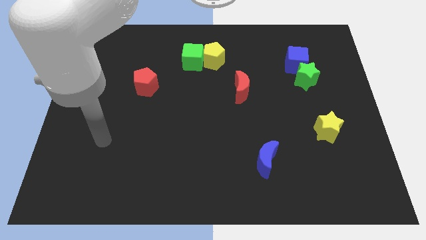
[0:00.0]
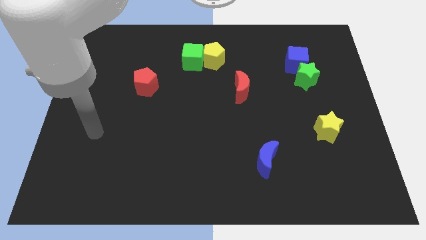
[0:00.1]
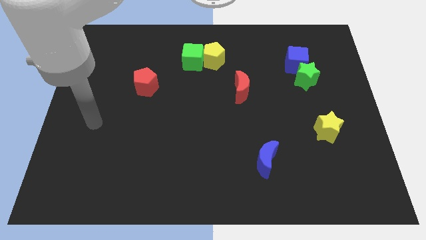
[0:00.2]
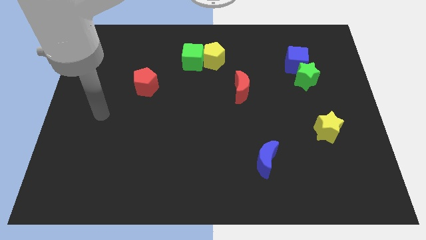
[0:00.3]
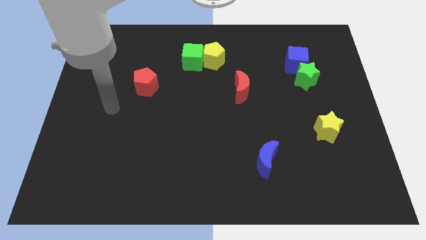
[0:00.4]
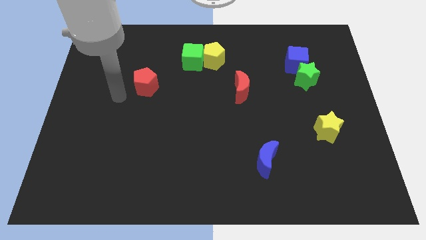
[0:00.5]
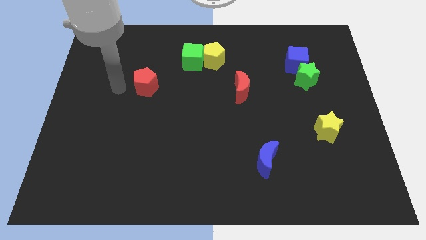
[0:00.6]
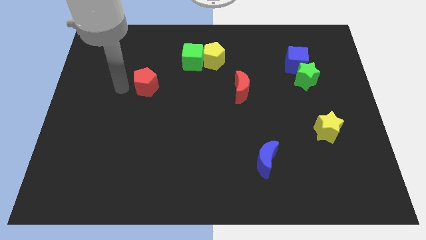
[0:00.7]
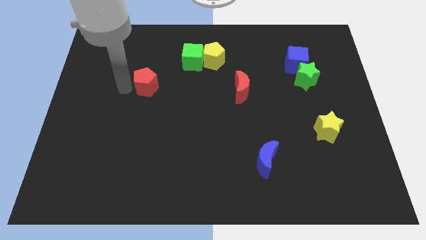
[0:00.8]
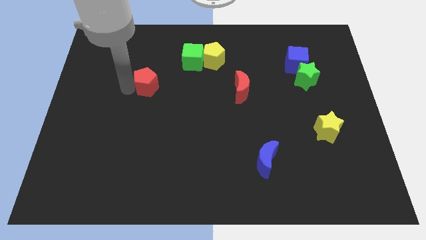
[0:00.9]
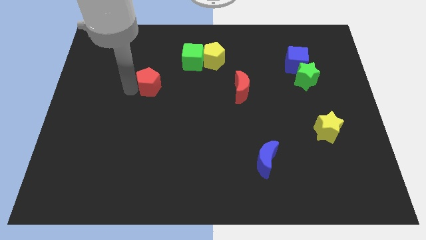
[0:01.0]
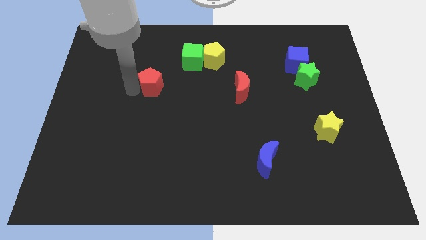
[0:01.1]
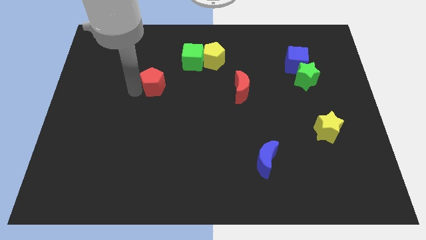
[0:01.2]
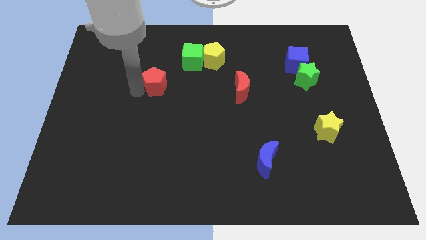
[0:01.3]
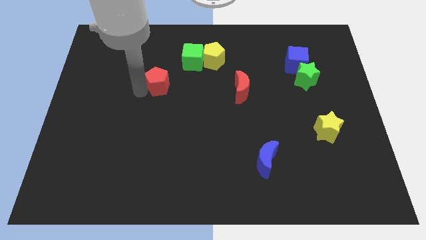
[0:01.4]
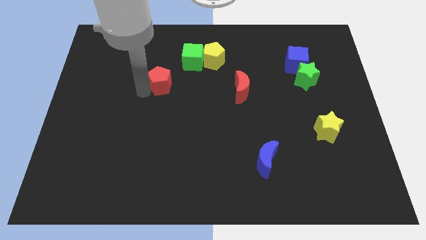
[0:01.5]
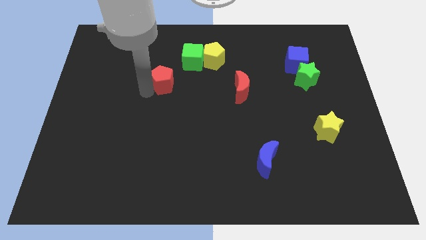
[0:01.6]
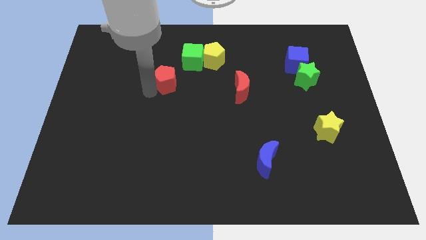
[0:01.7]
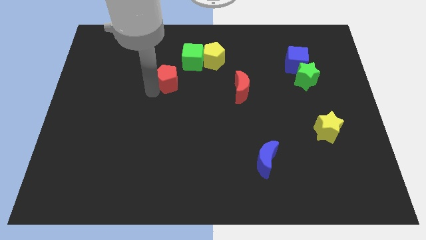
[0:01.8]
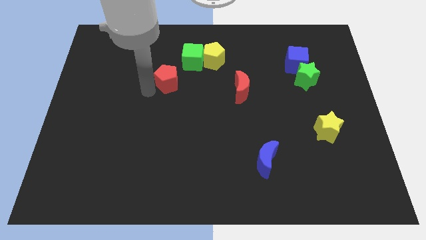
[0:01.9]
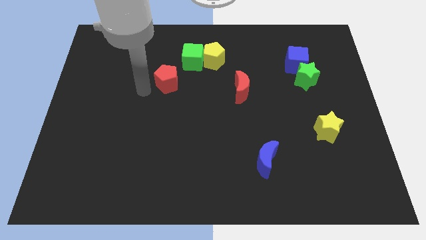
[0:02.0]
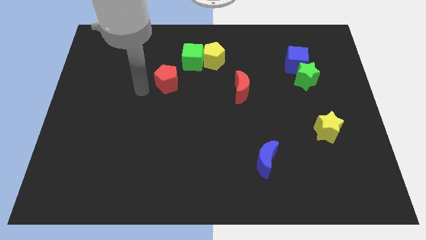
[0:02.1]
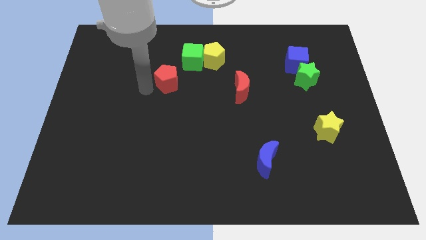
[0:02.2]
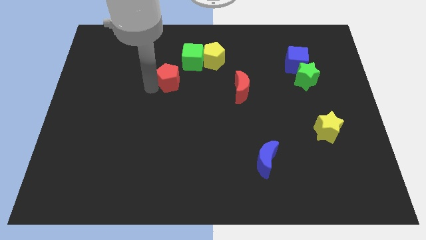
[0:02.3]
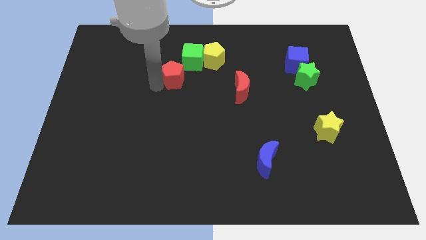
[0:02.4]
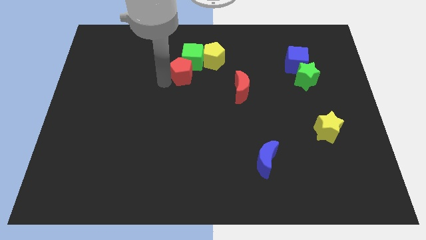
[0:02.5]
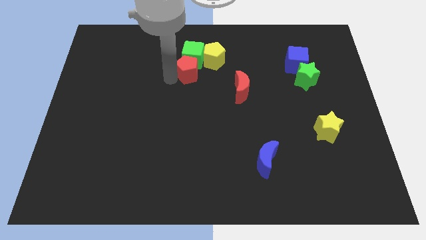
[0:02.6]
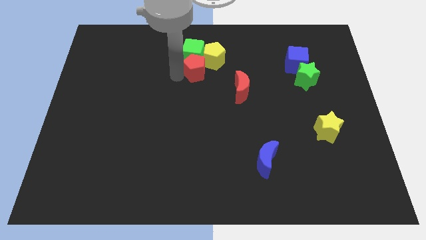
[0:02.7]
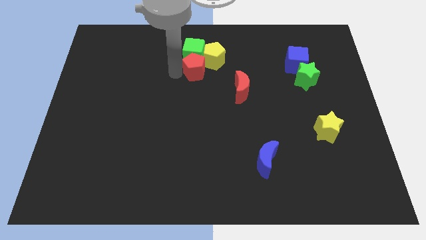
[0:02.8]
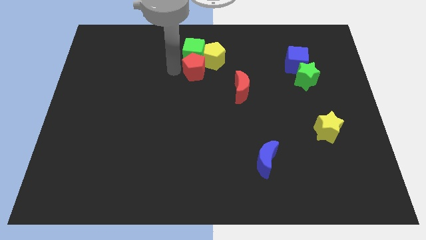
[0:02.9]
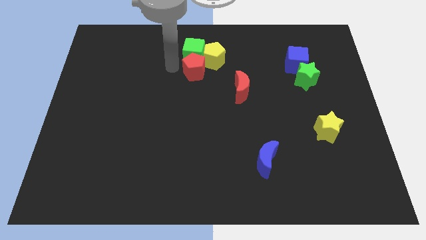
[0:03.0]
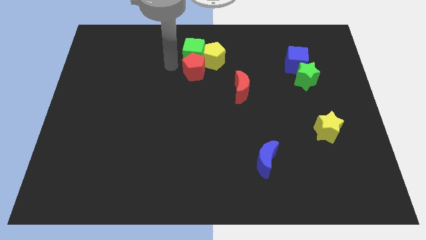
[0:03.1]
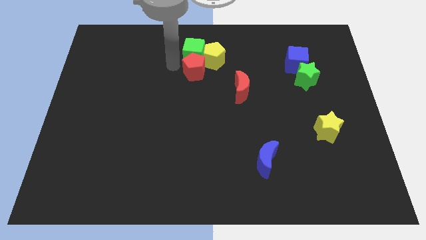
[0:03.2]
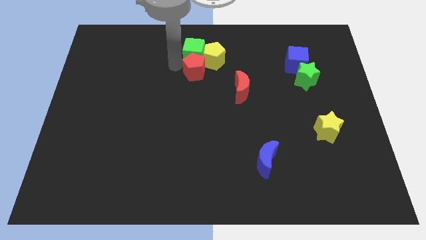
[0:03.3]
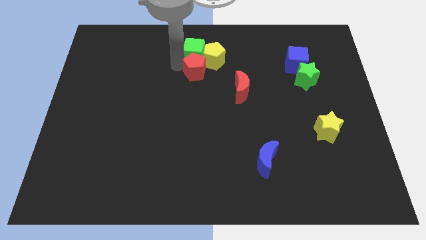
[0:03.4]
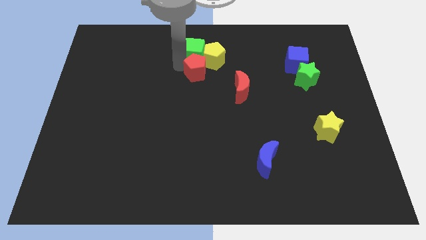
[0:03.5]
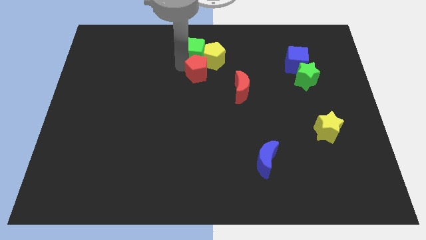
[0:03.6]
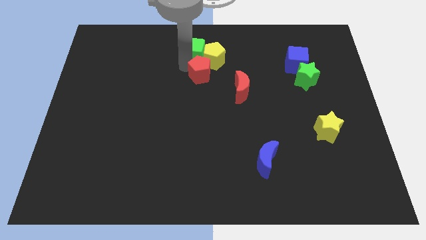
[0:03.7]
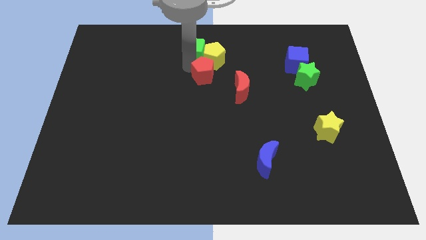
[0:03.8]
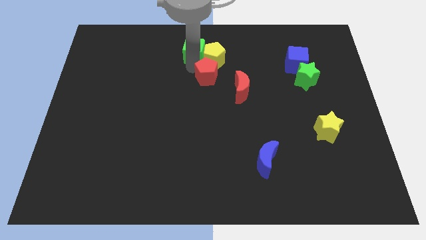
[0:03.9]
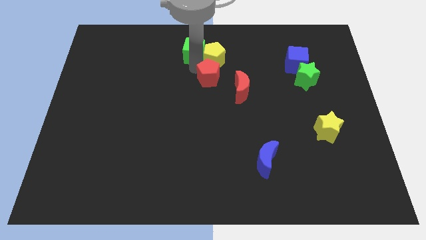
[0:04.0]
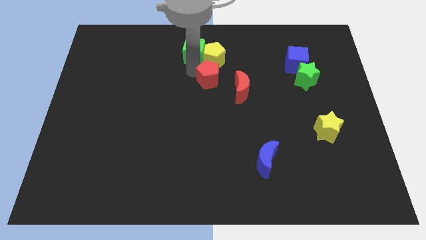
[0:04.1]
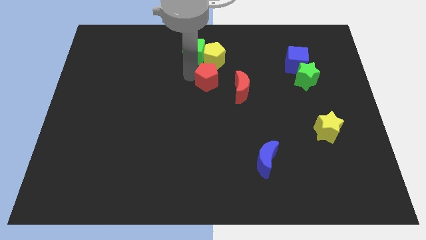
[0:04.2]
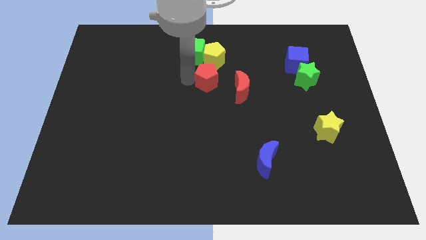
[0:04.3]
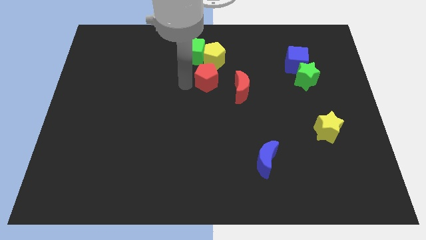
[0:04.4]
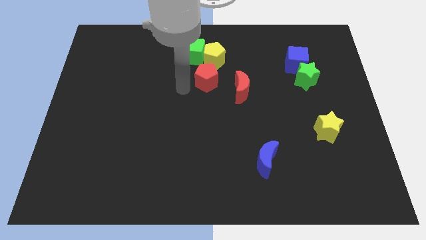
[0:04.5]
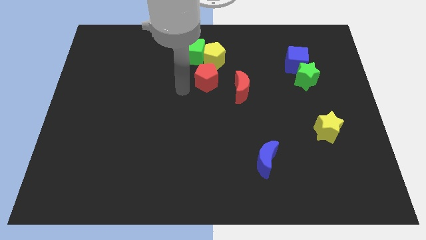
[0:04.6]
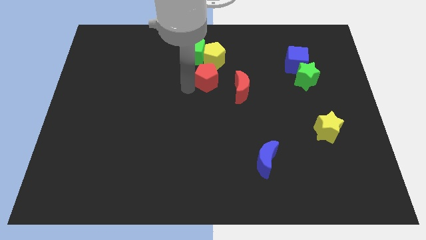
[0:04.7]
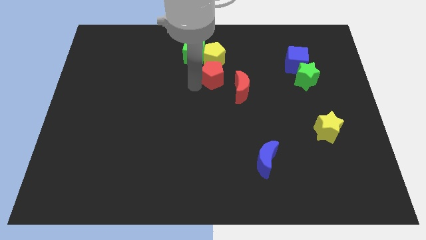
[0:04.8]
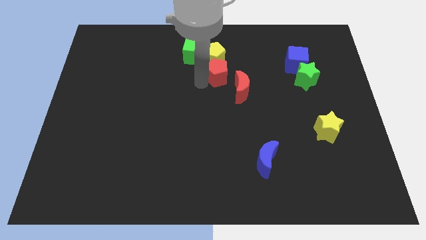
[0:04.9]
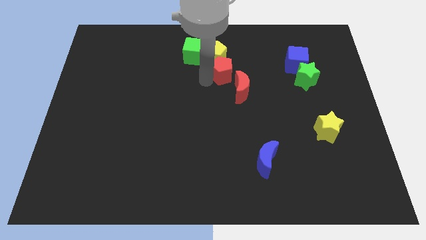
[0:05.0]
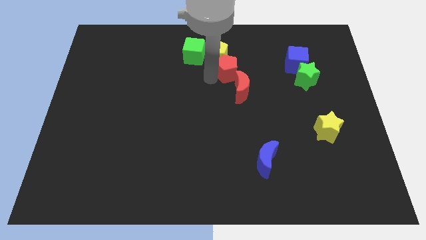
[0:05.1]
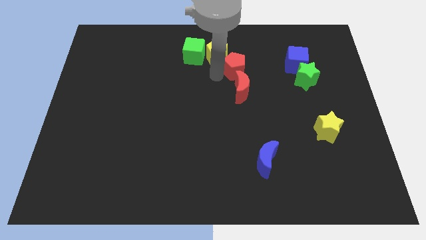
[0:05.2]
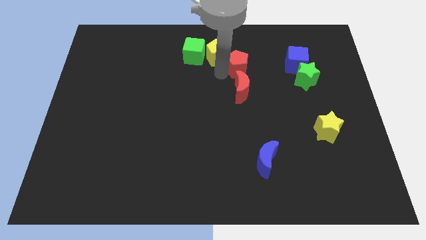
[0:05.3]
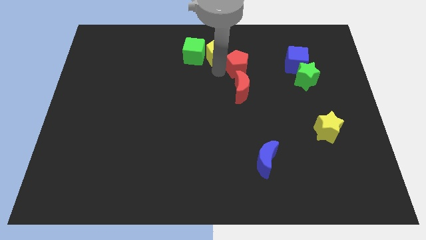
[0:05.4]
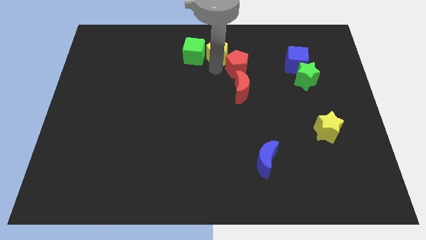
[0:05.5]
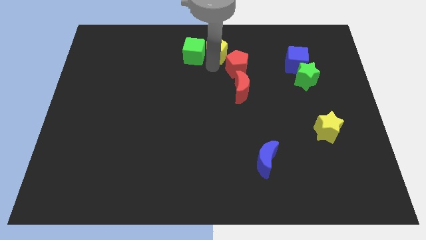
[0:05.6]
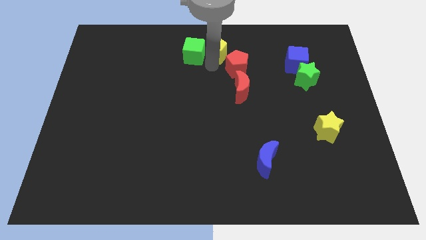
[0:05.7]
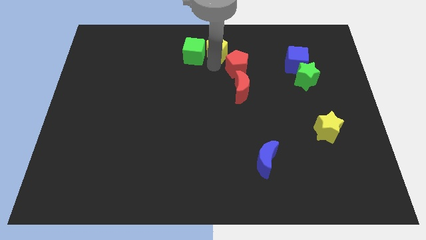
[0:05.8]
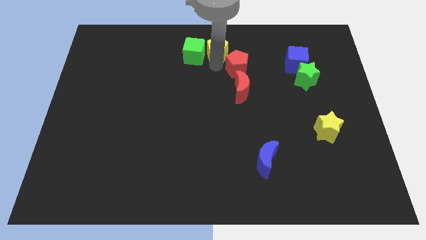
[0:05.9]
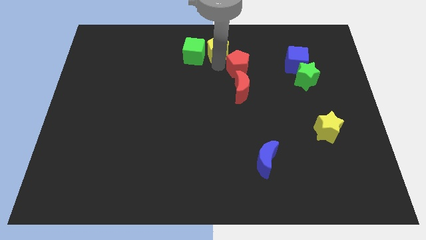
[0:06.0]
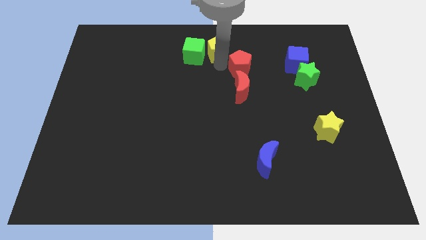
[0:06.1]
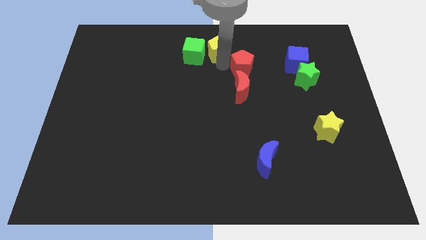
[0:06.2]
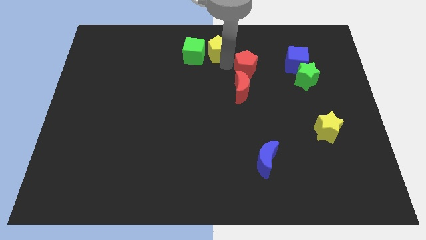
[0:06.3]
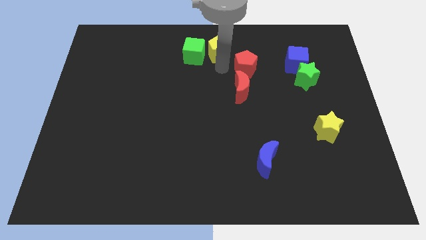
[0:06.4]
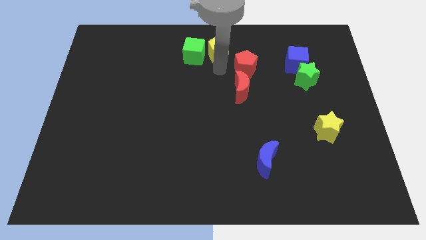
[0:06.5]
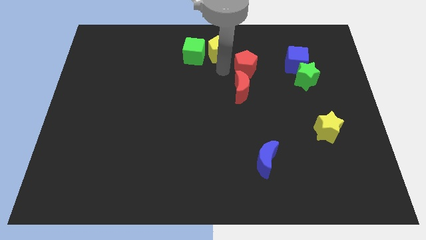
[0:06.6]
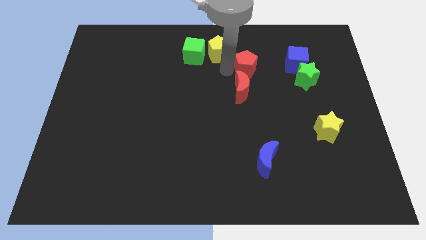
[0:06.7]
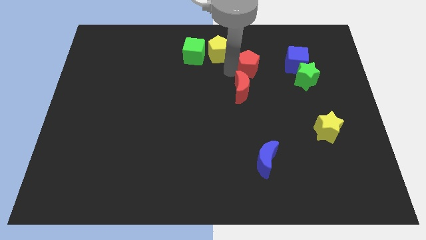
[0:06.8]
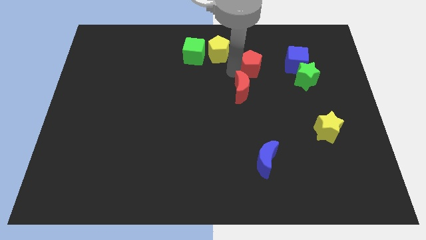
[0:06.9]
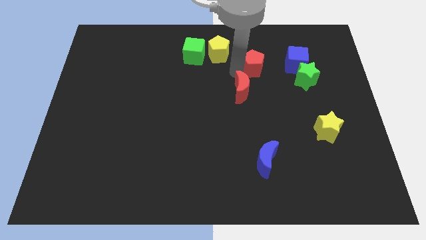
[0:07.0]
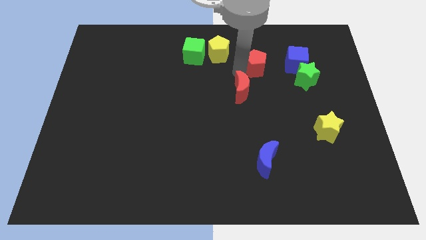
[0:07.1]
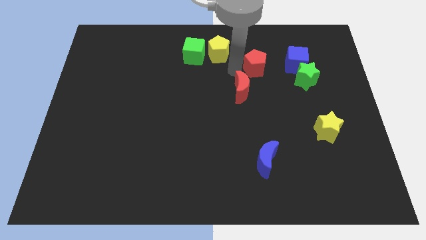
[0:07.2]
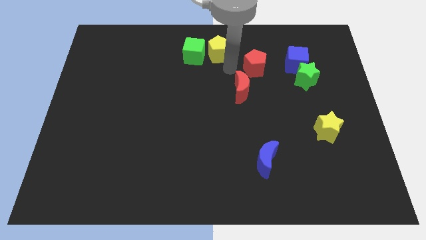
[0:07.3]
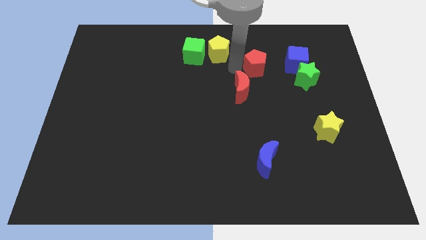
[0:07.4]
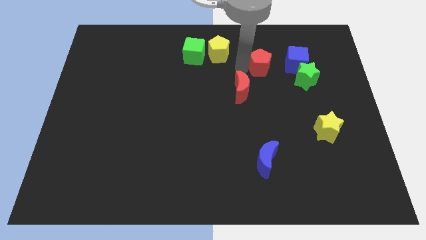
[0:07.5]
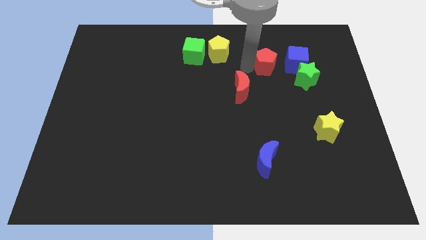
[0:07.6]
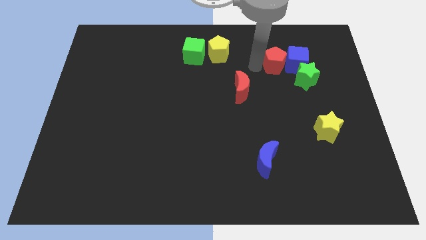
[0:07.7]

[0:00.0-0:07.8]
push the red pentagon close to the blue cube
